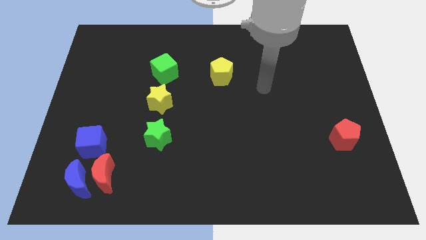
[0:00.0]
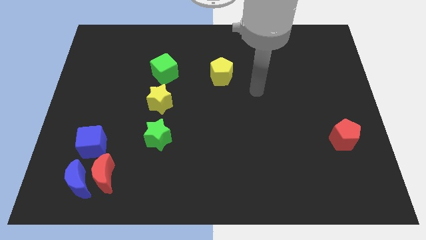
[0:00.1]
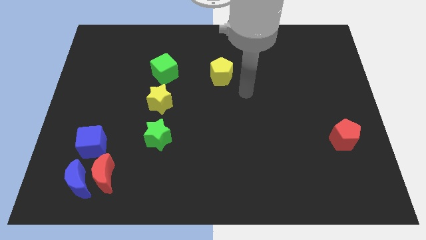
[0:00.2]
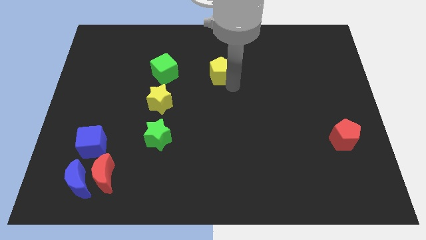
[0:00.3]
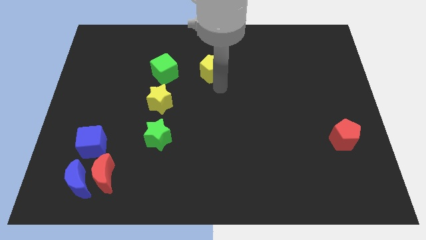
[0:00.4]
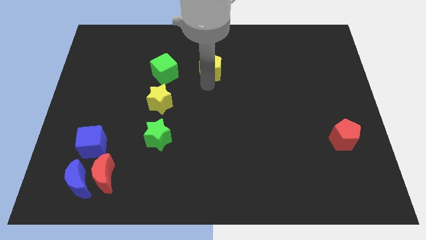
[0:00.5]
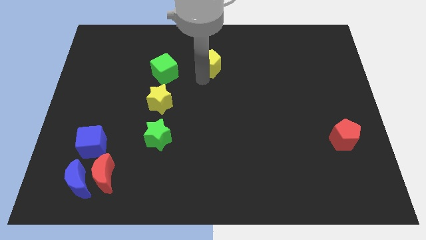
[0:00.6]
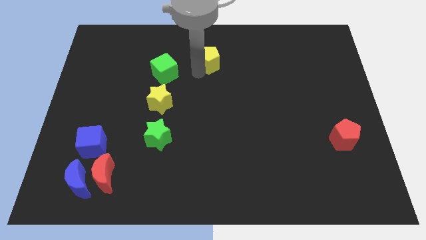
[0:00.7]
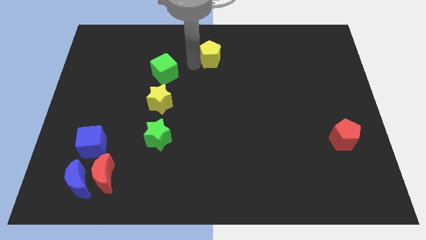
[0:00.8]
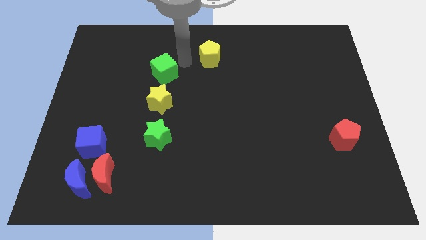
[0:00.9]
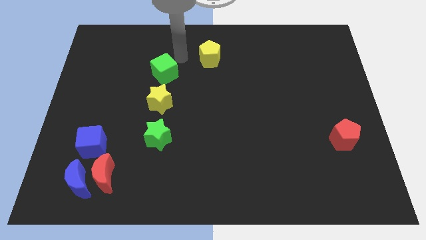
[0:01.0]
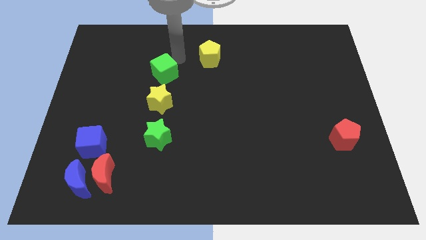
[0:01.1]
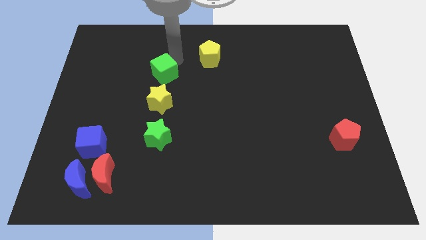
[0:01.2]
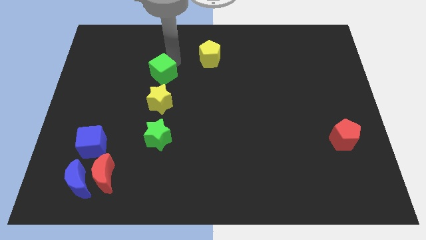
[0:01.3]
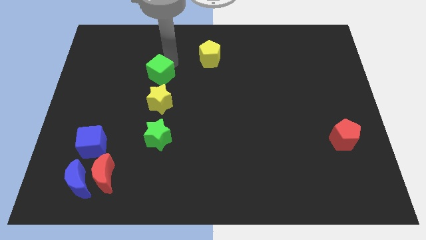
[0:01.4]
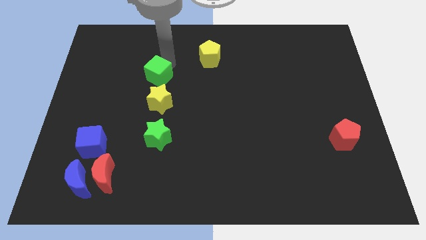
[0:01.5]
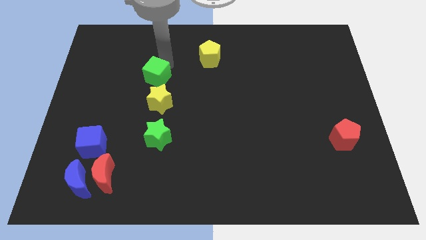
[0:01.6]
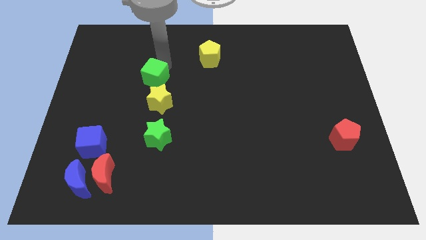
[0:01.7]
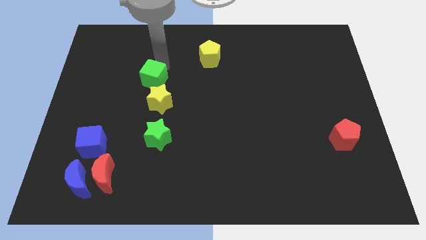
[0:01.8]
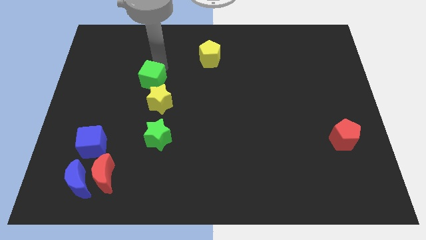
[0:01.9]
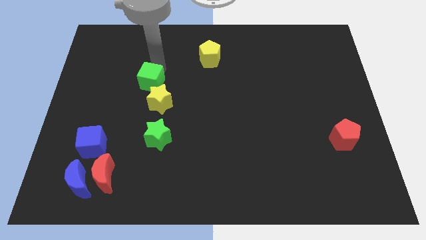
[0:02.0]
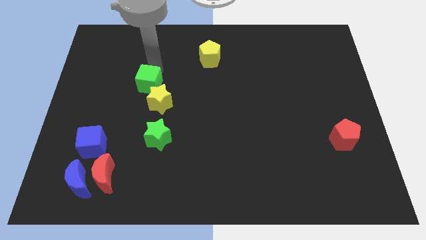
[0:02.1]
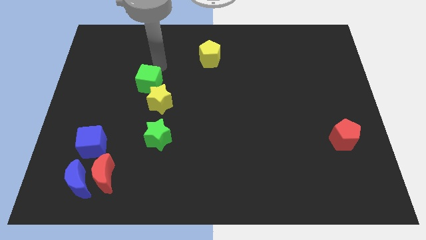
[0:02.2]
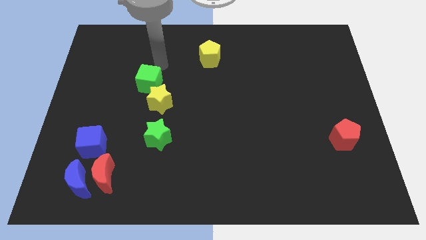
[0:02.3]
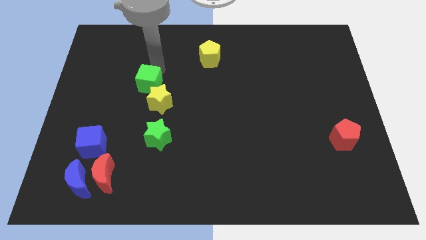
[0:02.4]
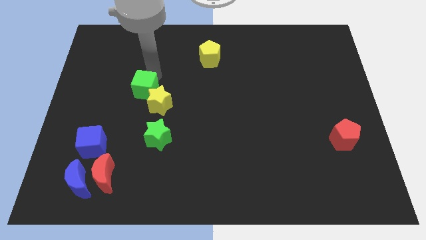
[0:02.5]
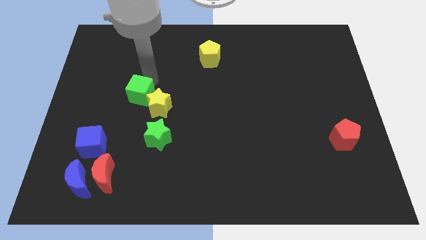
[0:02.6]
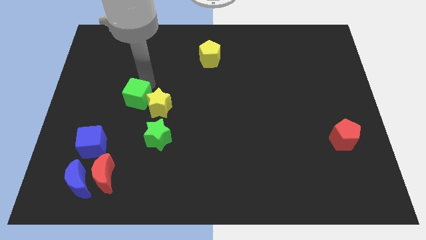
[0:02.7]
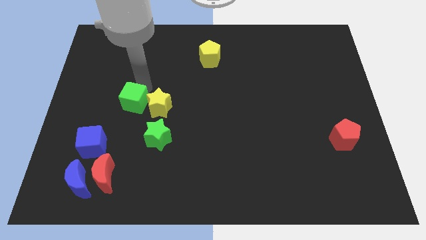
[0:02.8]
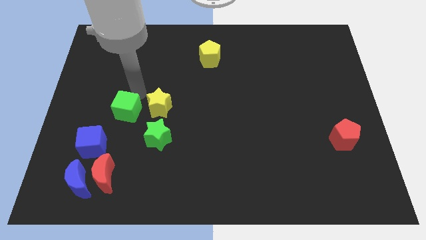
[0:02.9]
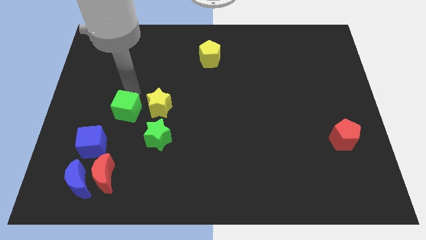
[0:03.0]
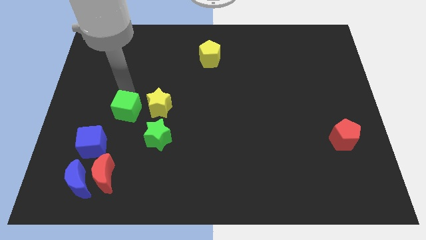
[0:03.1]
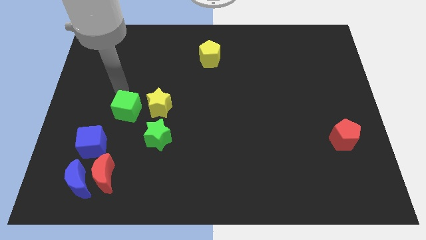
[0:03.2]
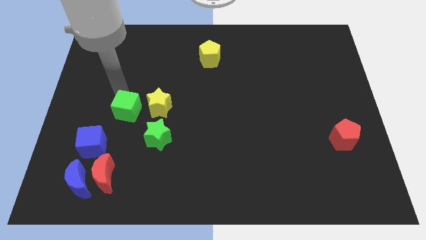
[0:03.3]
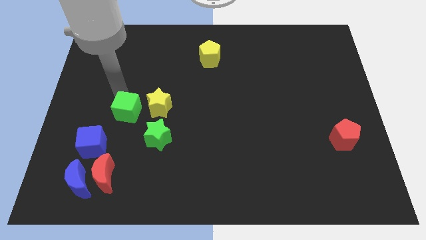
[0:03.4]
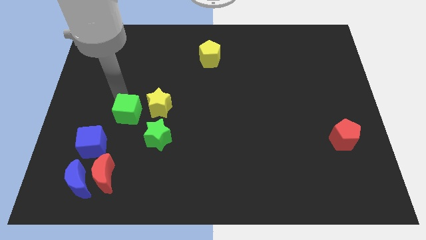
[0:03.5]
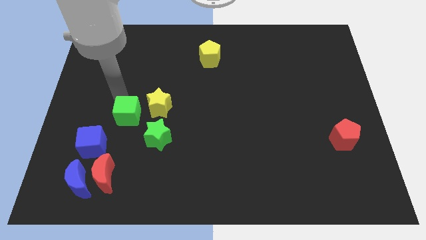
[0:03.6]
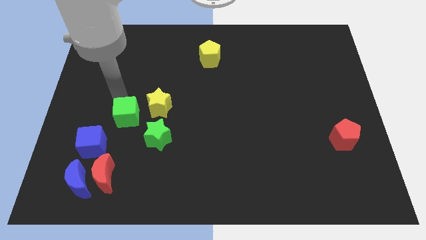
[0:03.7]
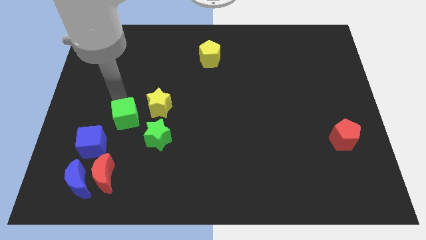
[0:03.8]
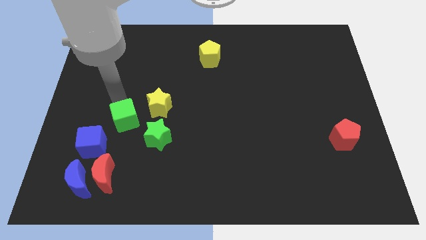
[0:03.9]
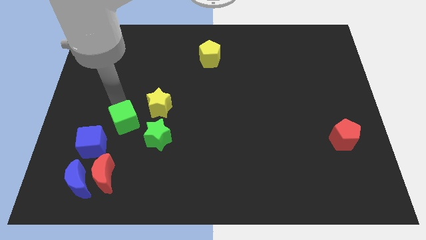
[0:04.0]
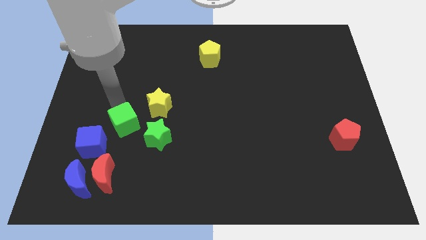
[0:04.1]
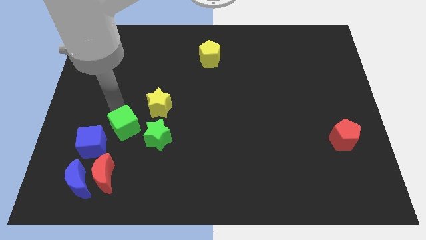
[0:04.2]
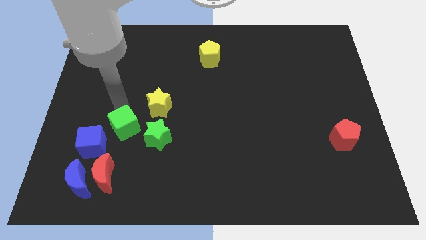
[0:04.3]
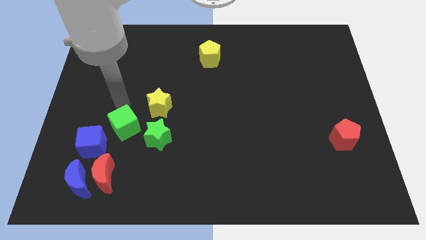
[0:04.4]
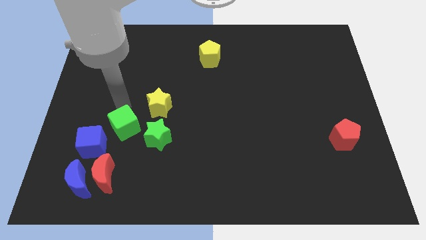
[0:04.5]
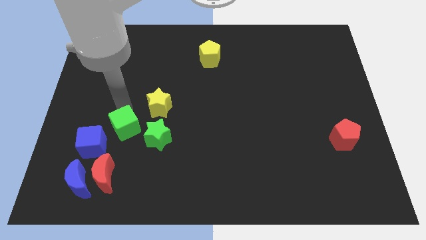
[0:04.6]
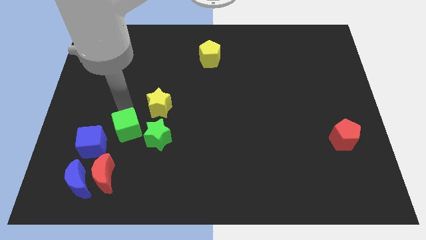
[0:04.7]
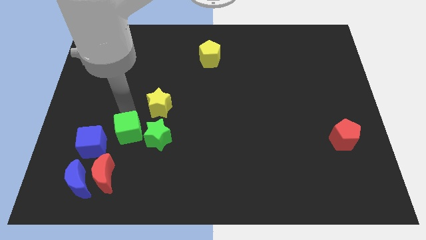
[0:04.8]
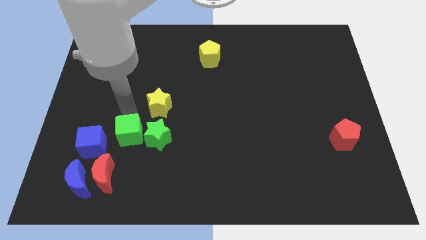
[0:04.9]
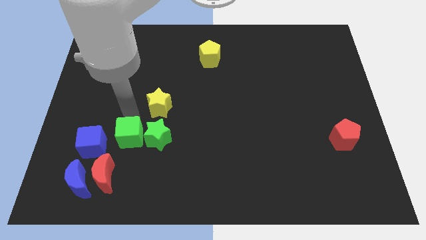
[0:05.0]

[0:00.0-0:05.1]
slide the green cube diagonally down and to the left of the green star

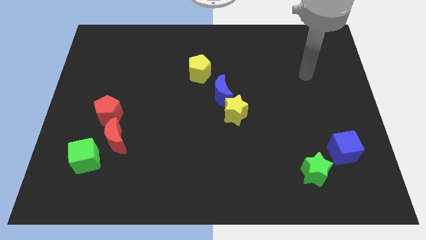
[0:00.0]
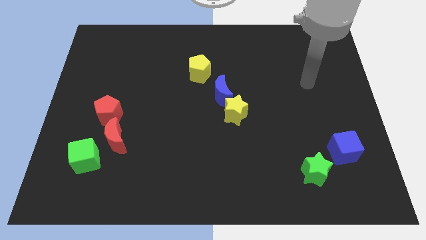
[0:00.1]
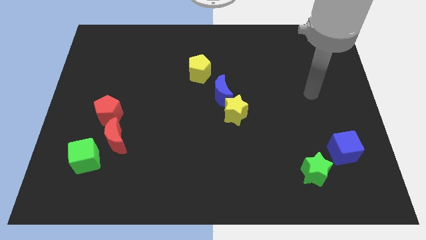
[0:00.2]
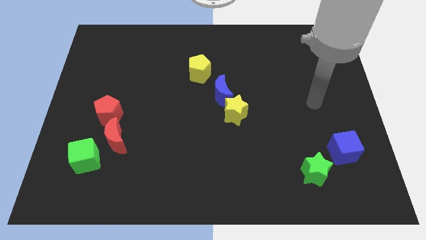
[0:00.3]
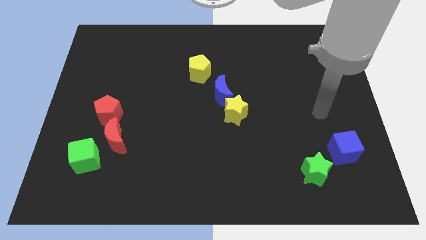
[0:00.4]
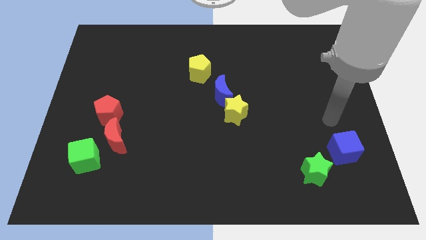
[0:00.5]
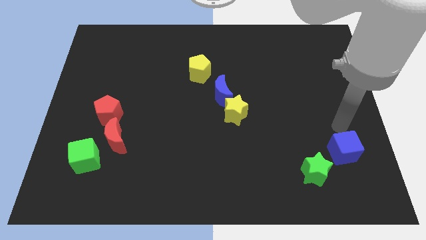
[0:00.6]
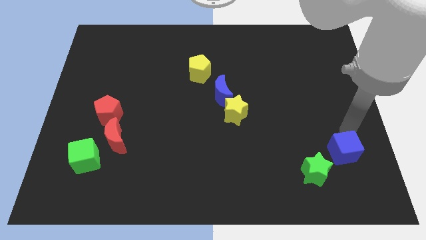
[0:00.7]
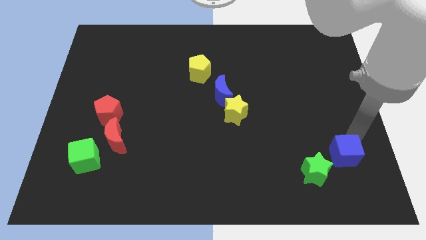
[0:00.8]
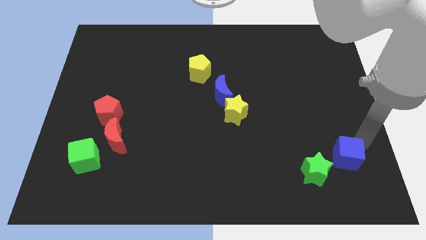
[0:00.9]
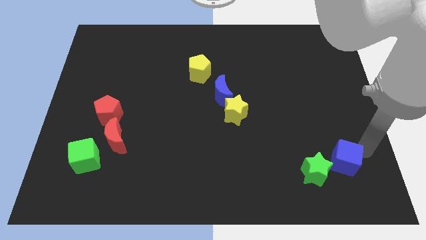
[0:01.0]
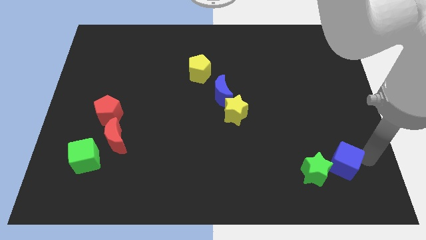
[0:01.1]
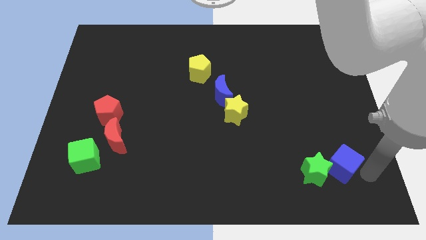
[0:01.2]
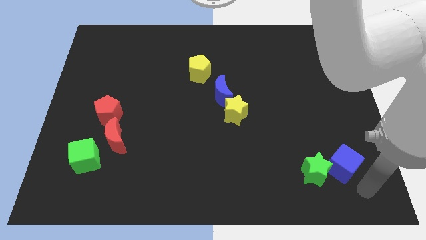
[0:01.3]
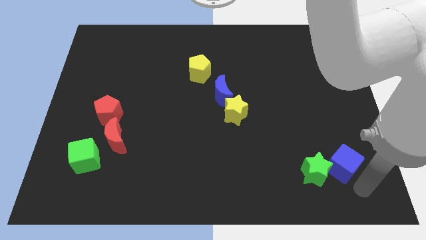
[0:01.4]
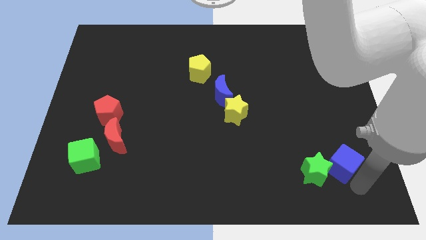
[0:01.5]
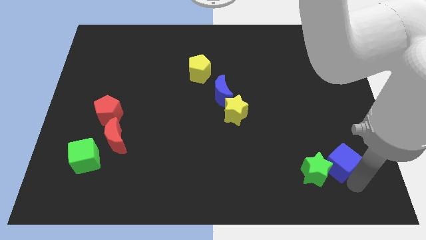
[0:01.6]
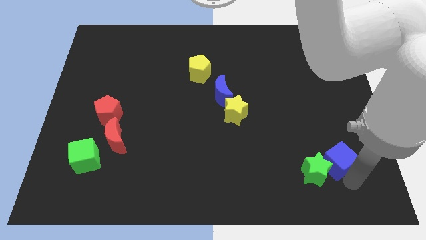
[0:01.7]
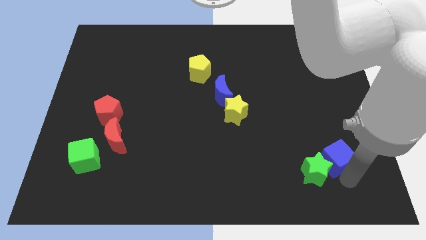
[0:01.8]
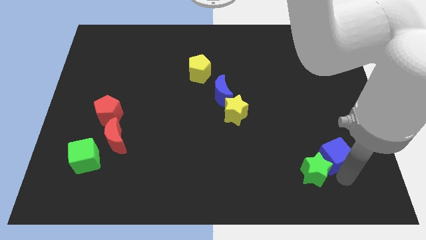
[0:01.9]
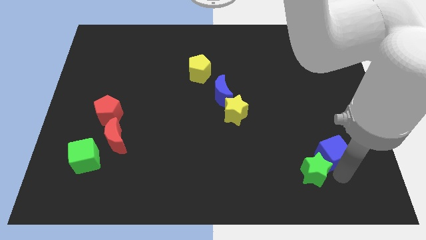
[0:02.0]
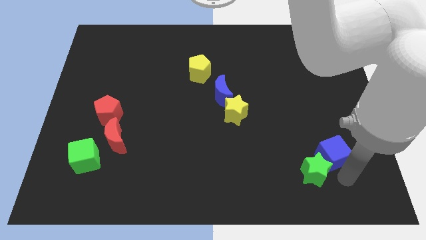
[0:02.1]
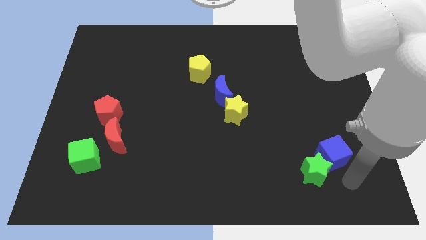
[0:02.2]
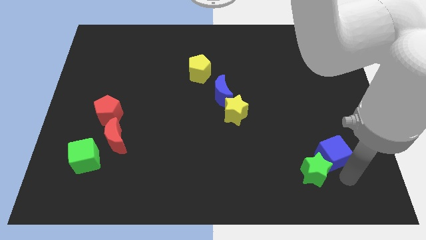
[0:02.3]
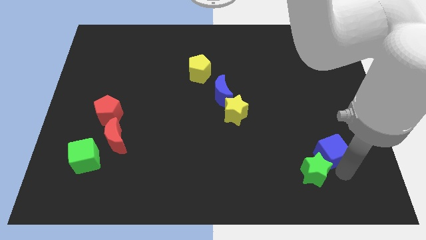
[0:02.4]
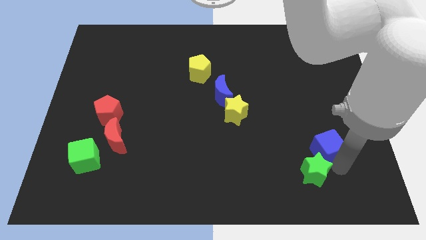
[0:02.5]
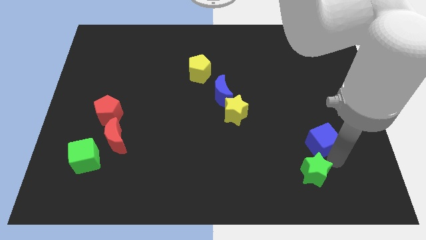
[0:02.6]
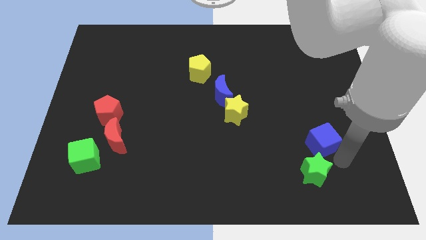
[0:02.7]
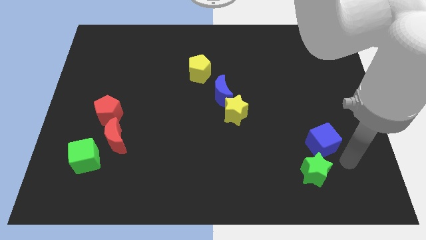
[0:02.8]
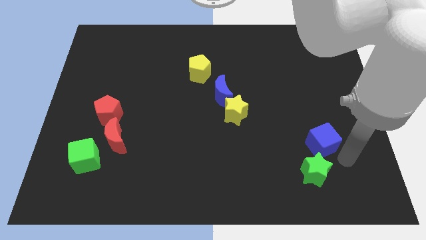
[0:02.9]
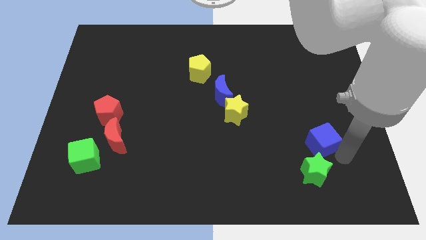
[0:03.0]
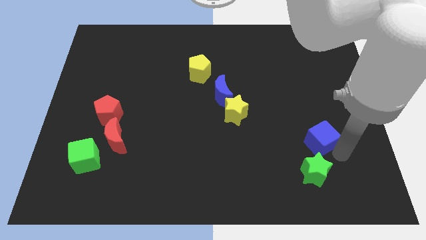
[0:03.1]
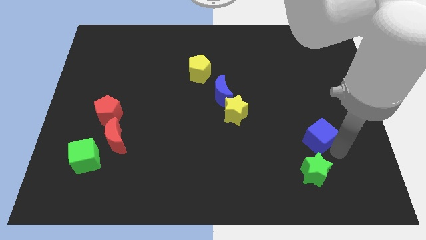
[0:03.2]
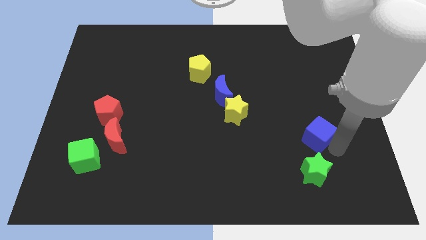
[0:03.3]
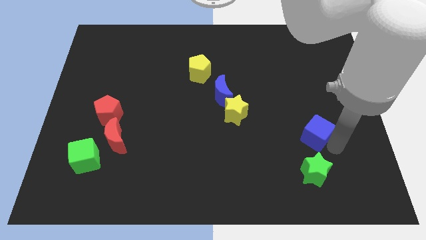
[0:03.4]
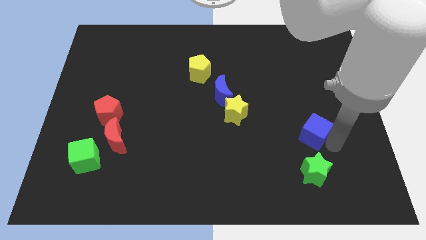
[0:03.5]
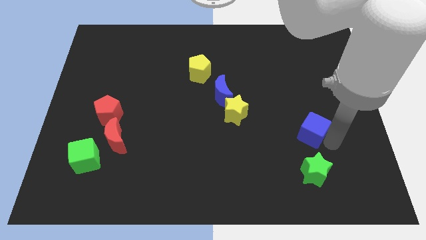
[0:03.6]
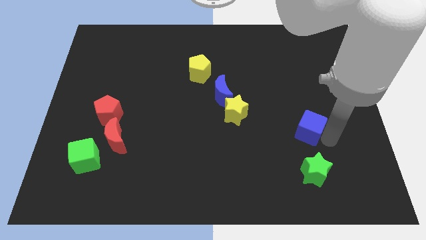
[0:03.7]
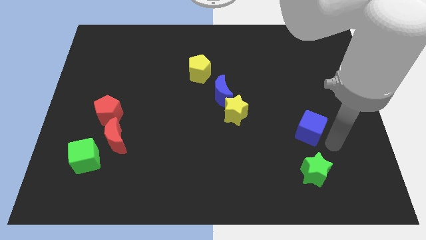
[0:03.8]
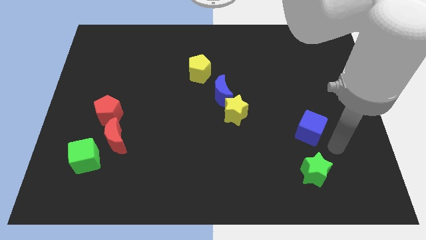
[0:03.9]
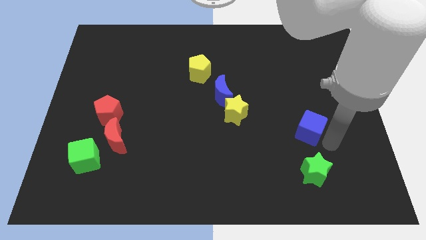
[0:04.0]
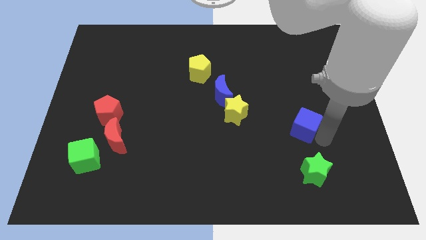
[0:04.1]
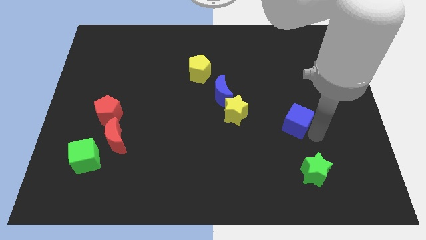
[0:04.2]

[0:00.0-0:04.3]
put the blue cube right of the yellow star
